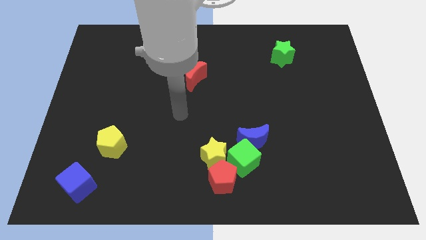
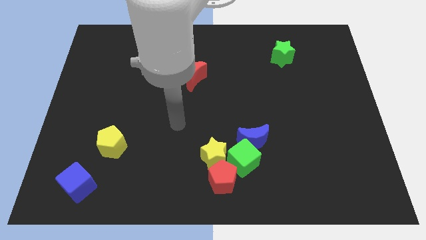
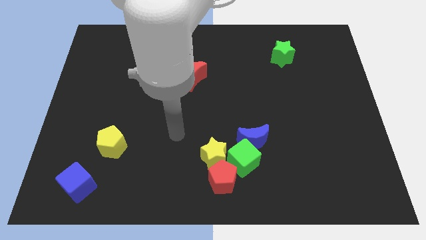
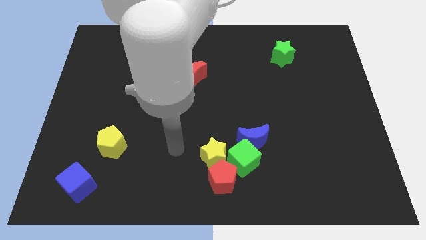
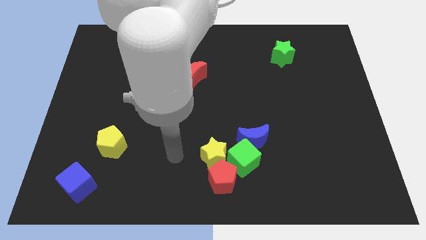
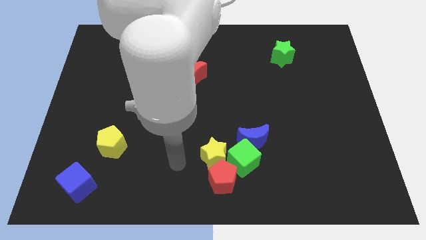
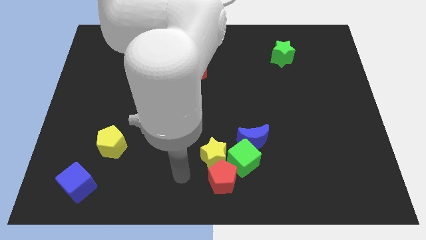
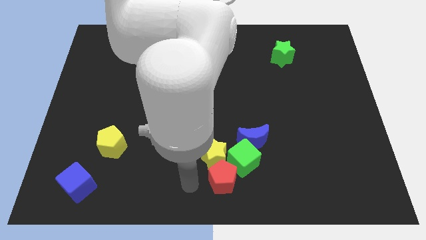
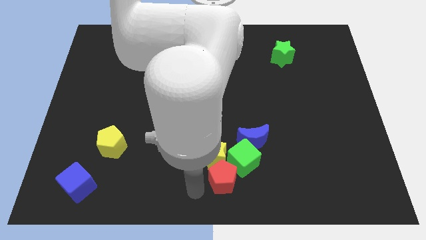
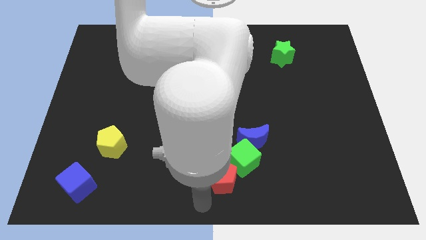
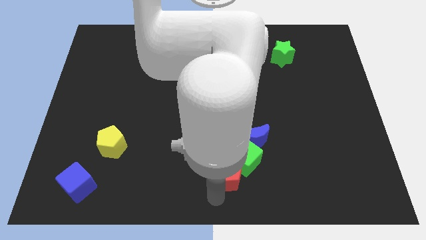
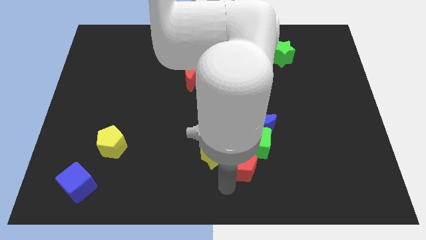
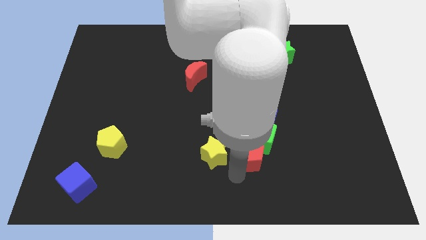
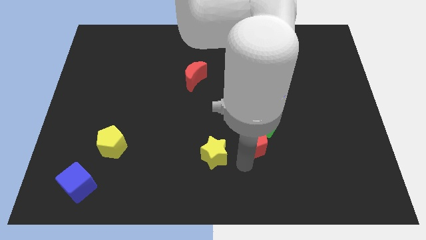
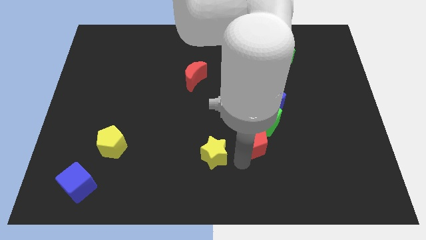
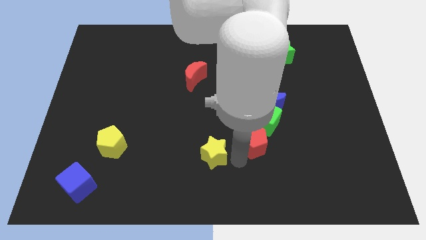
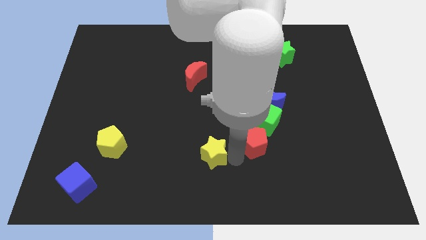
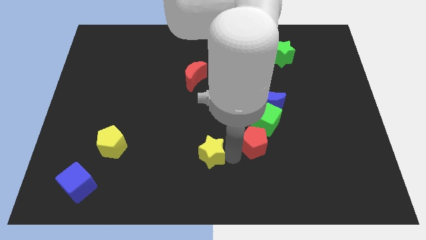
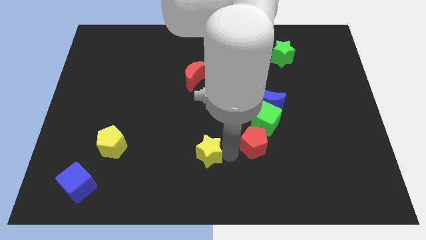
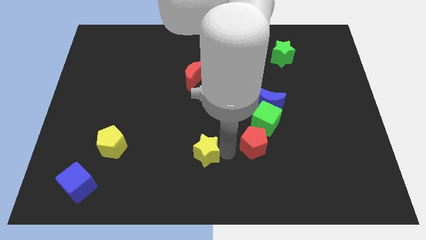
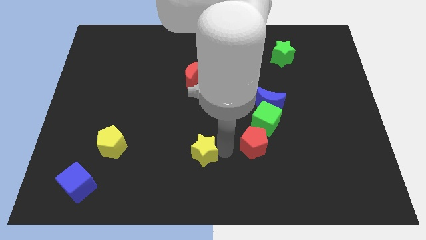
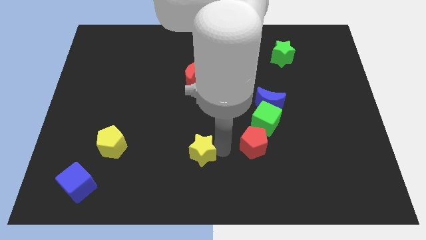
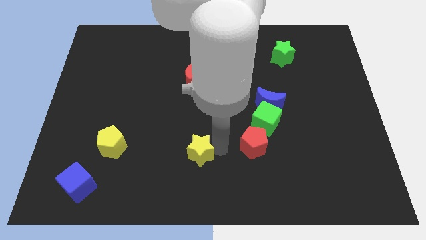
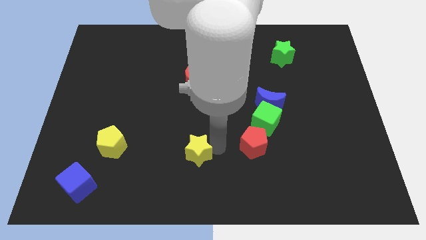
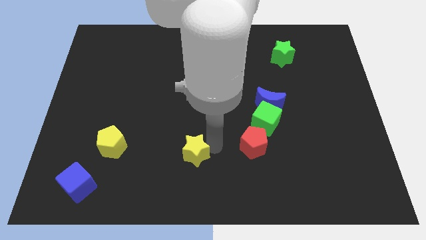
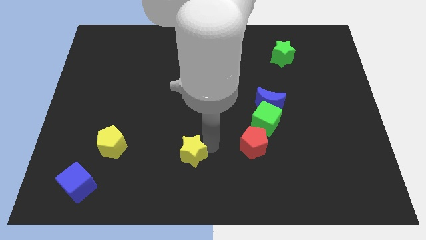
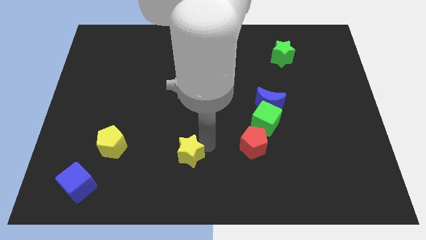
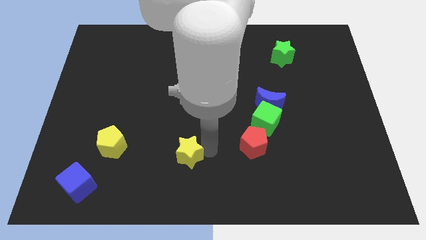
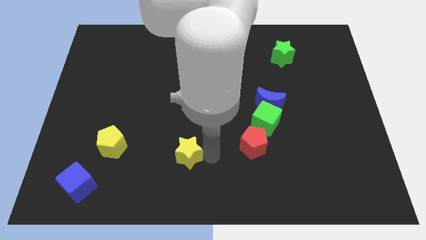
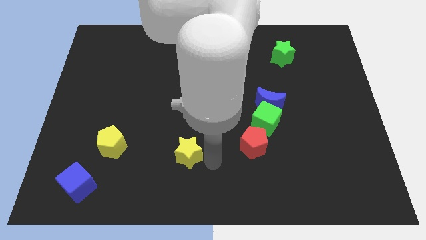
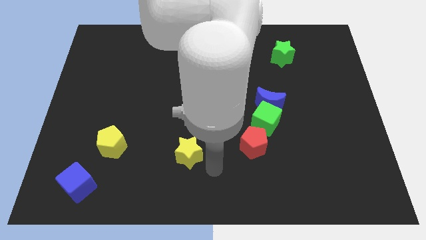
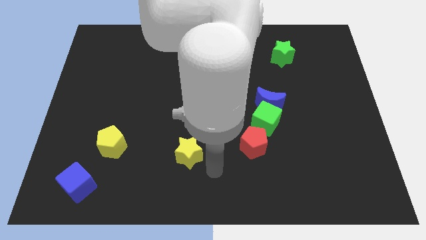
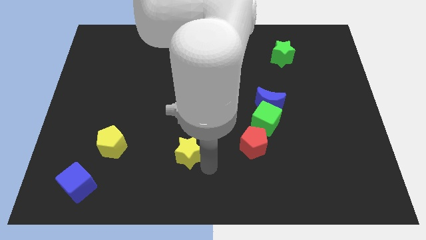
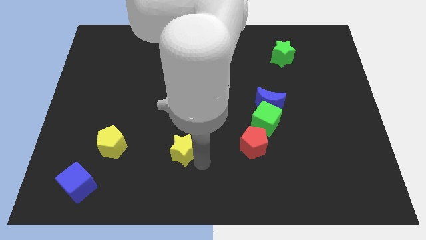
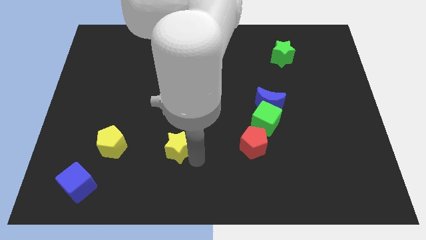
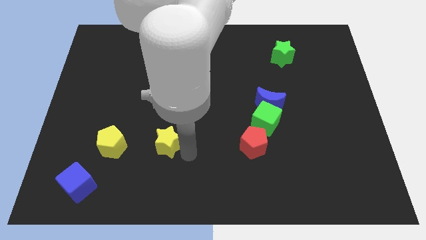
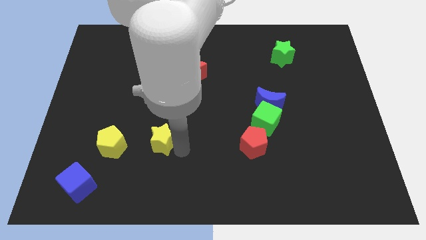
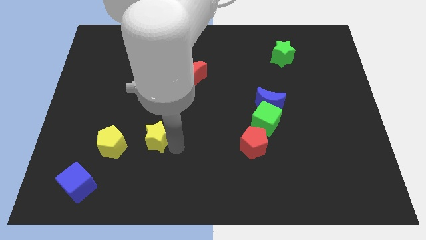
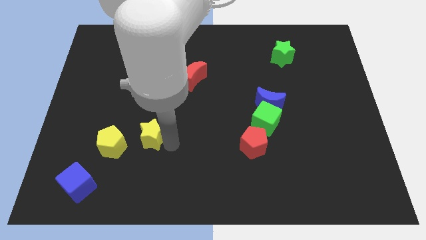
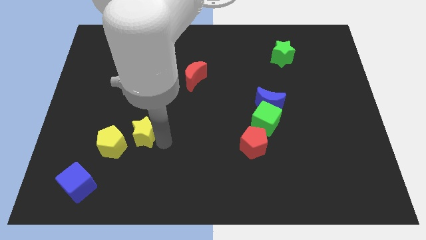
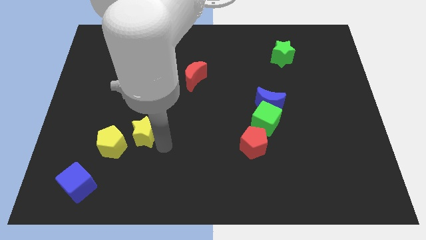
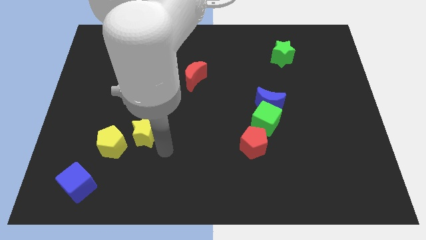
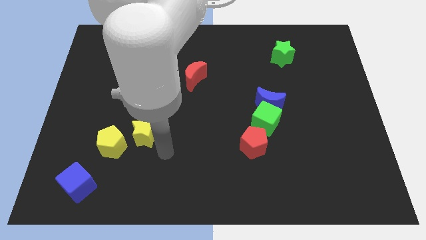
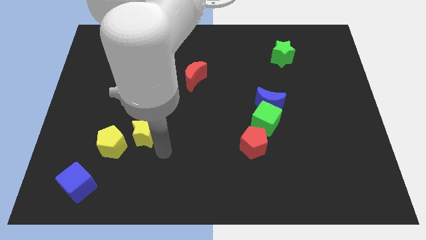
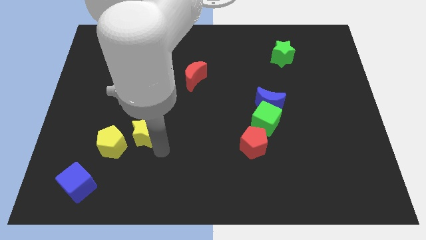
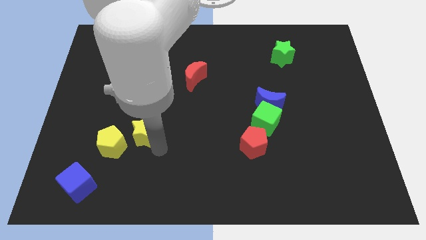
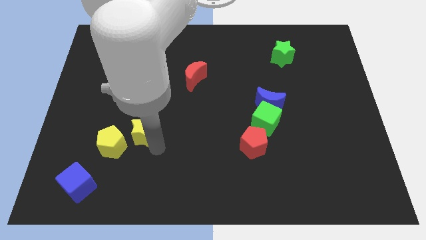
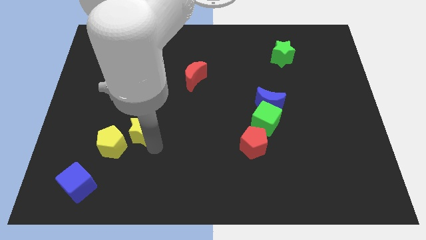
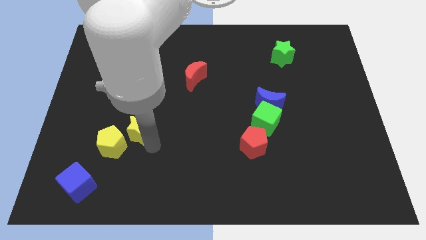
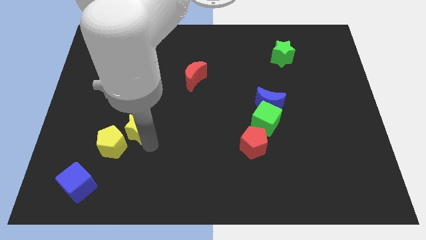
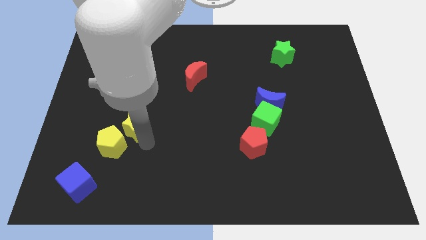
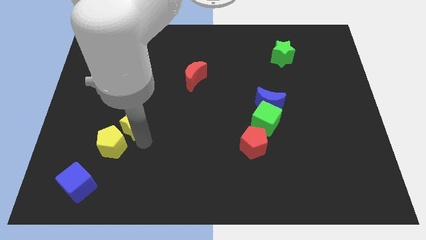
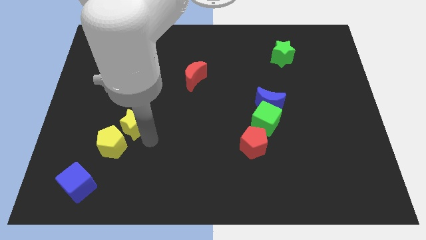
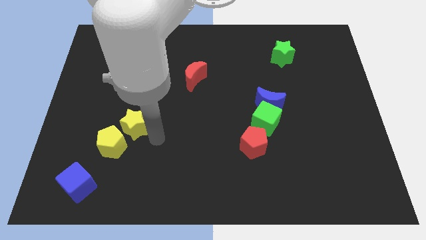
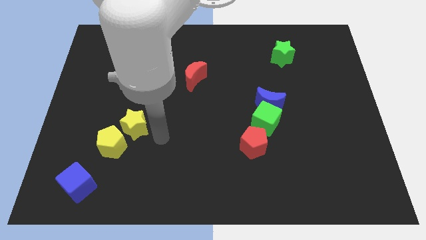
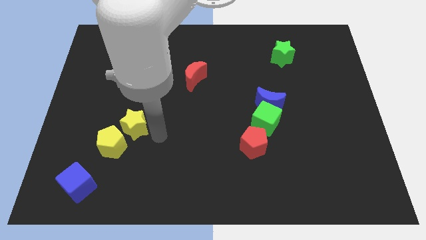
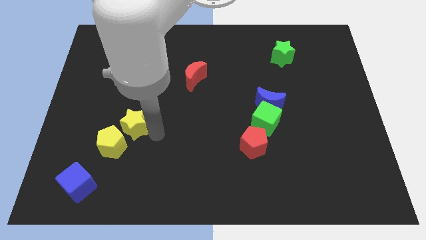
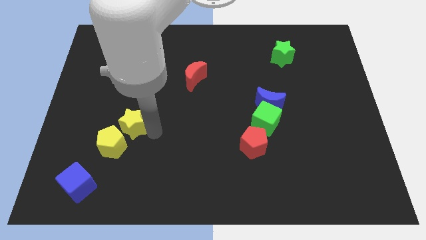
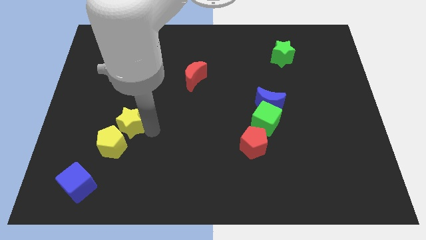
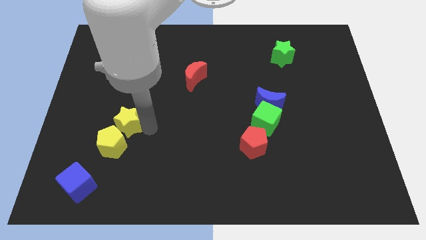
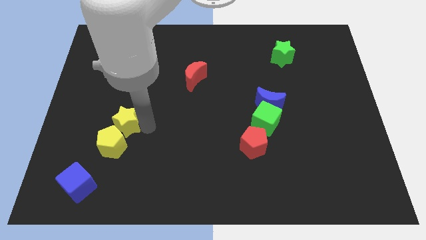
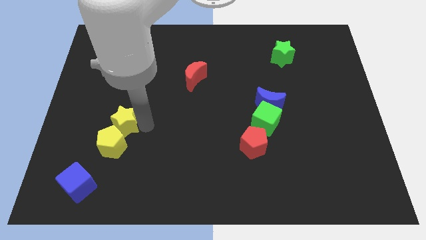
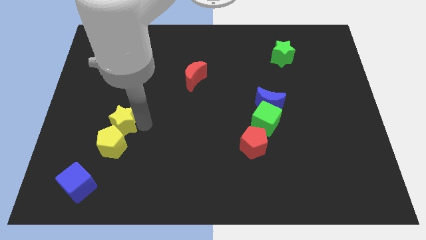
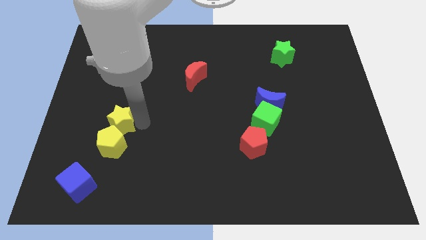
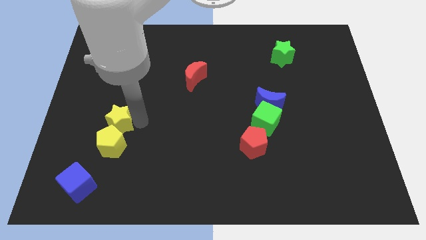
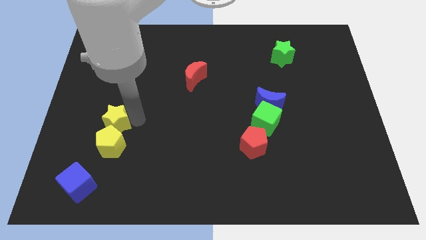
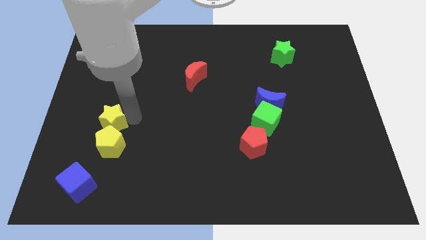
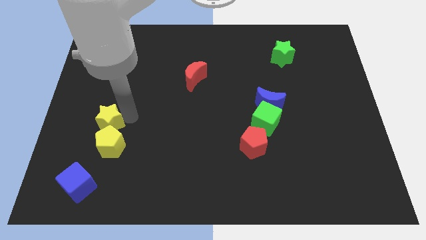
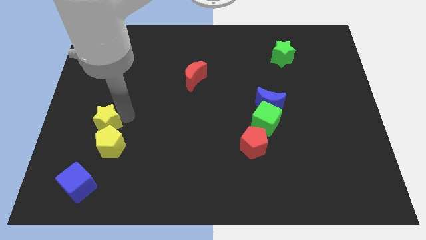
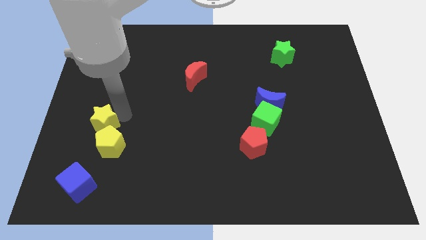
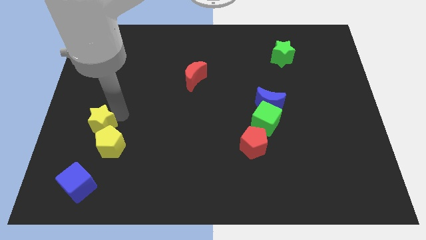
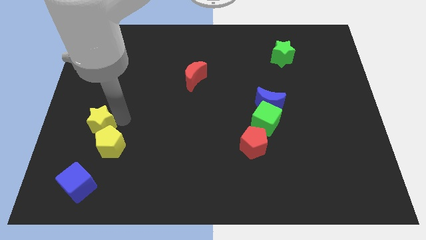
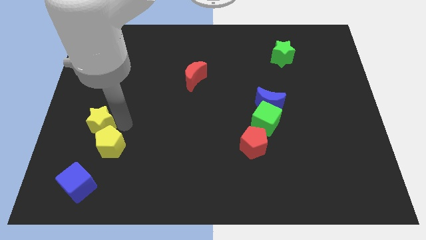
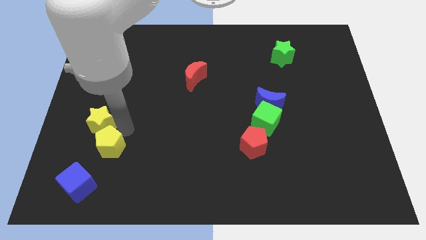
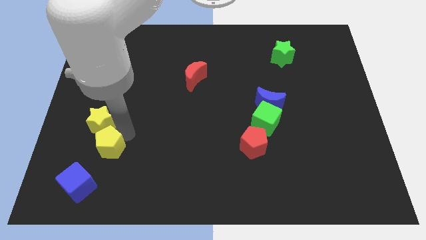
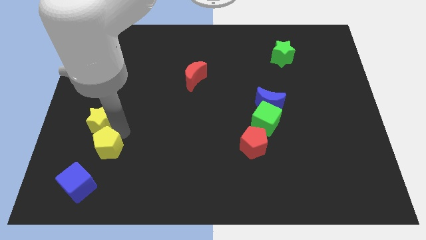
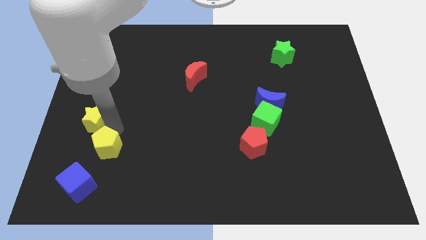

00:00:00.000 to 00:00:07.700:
push the yellow star to the left side of the board
